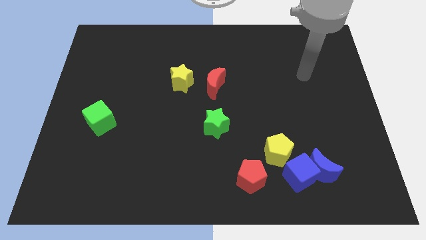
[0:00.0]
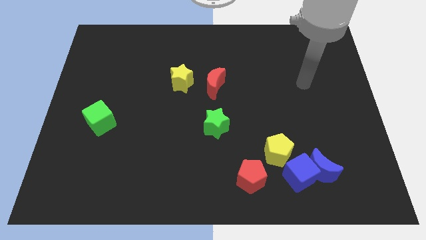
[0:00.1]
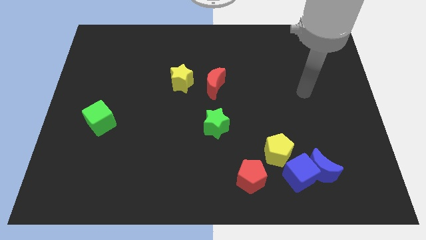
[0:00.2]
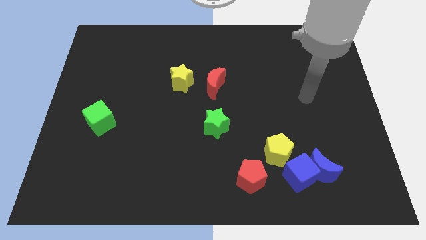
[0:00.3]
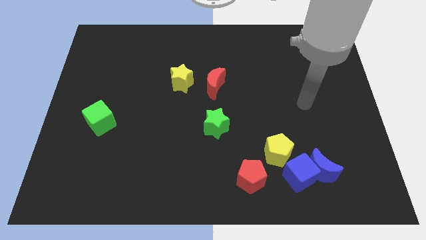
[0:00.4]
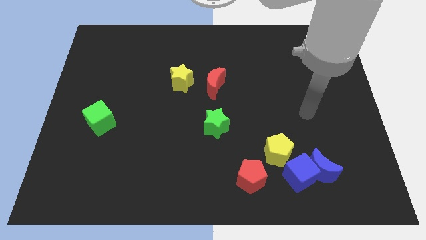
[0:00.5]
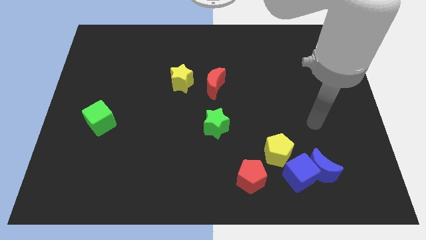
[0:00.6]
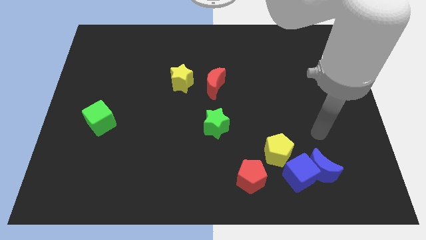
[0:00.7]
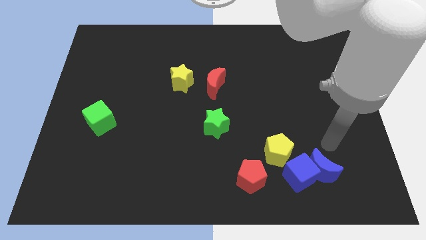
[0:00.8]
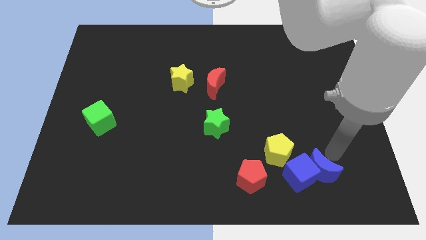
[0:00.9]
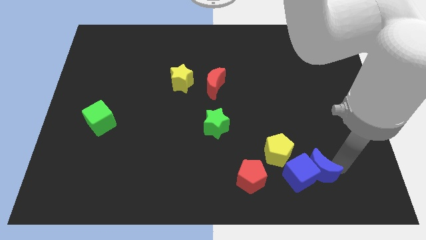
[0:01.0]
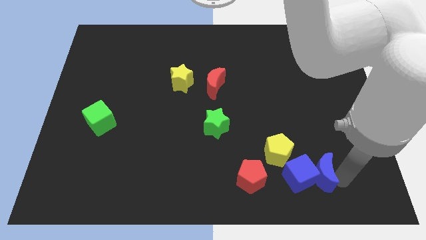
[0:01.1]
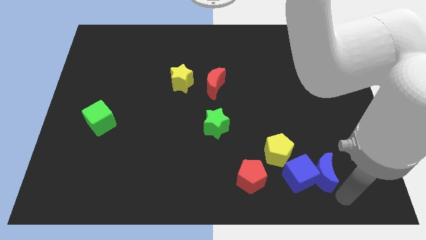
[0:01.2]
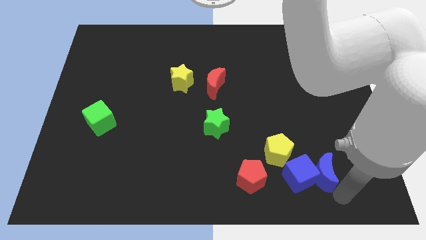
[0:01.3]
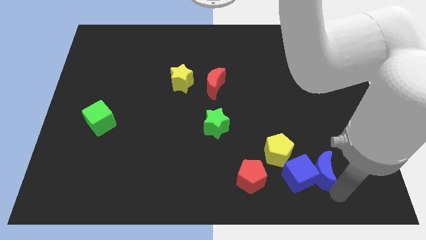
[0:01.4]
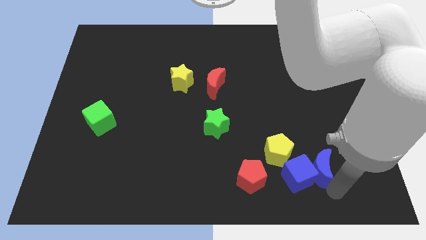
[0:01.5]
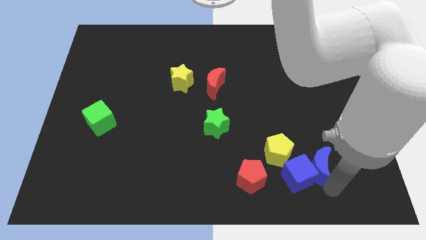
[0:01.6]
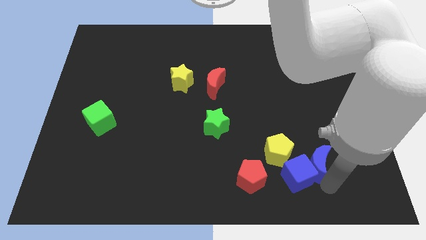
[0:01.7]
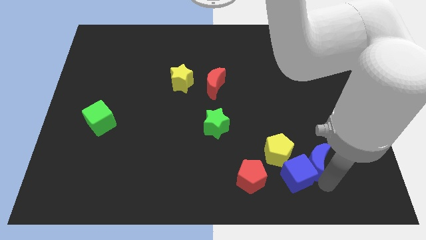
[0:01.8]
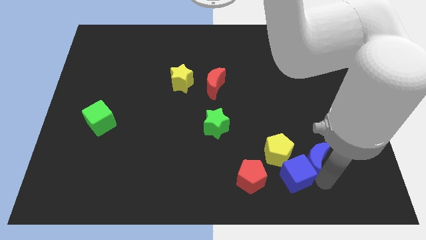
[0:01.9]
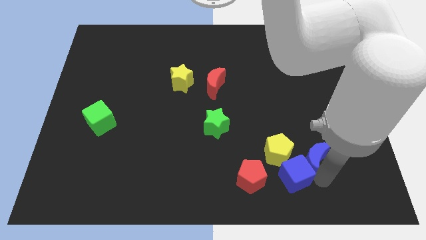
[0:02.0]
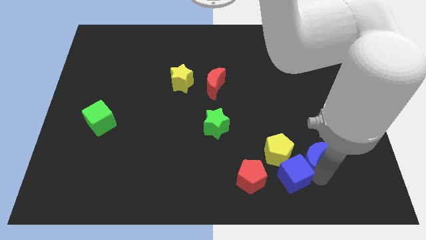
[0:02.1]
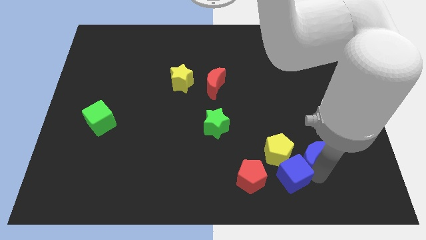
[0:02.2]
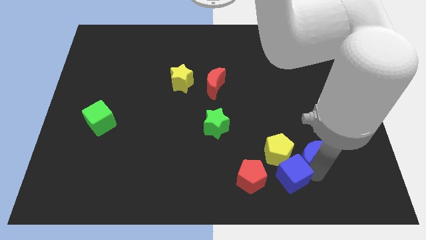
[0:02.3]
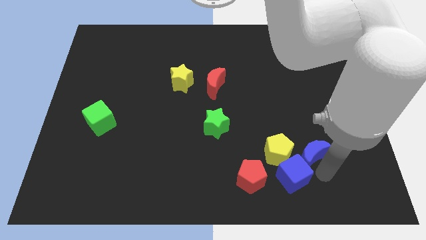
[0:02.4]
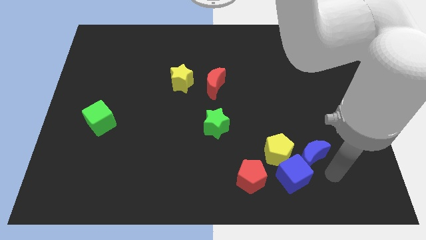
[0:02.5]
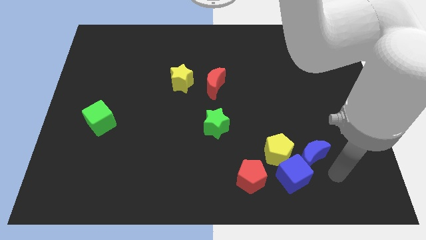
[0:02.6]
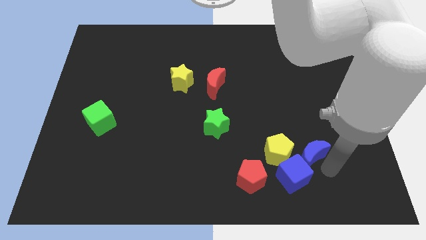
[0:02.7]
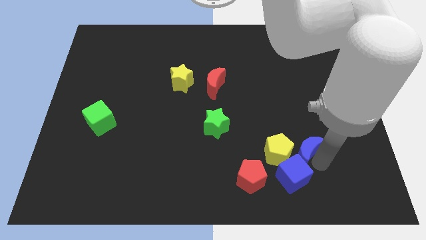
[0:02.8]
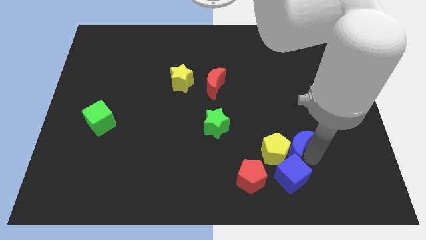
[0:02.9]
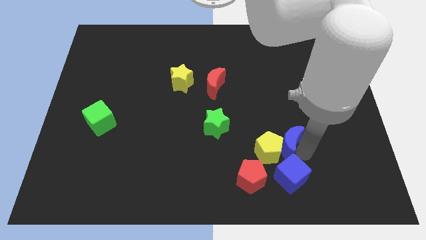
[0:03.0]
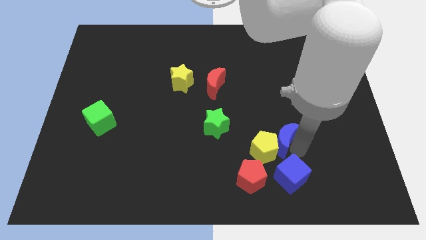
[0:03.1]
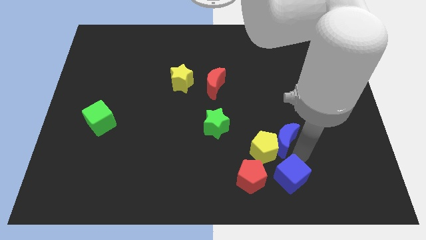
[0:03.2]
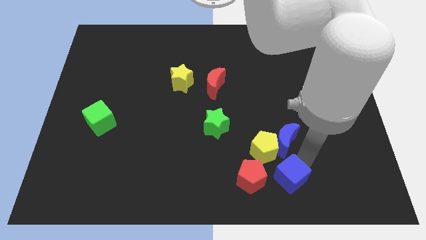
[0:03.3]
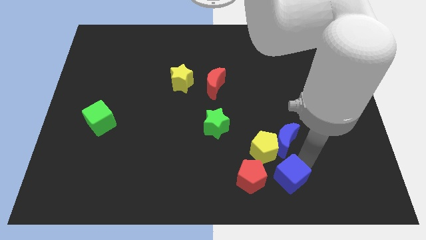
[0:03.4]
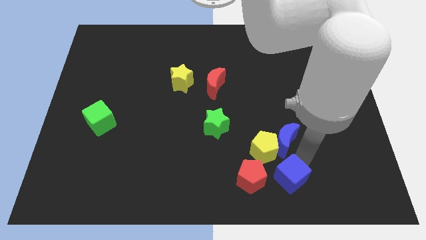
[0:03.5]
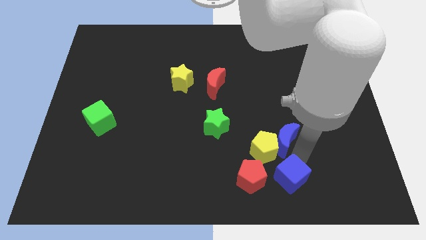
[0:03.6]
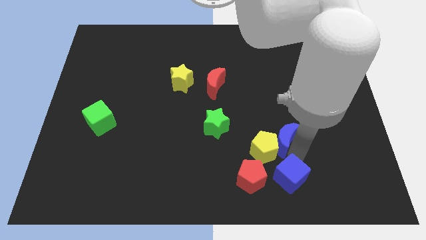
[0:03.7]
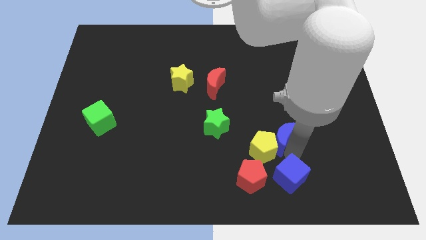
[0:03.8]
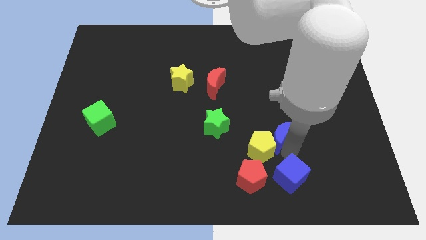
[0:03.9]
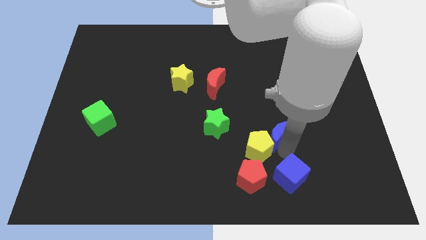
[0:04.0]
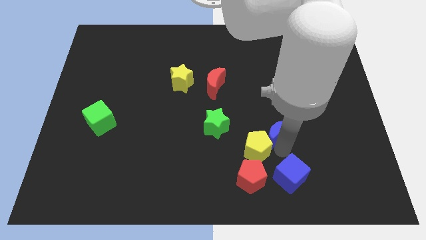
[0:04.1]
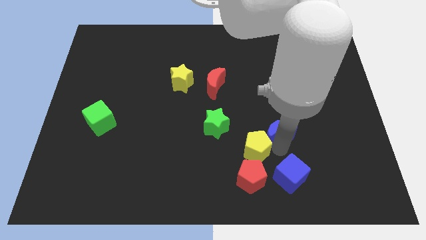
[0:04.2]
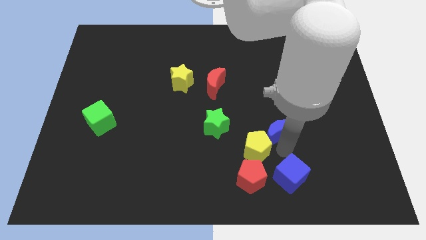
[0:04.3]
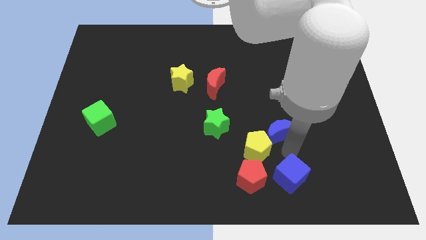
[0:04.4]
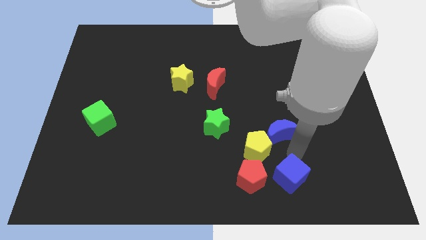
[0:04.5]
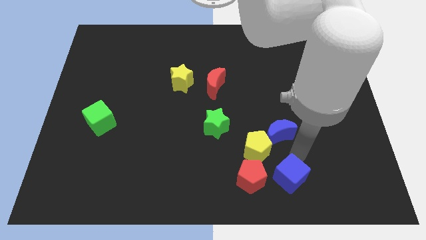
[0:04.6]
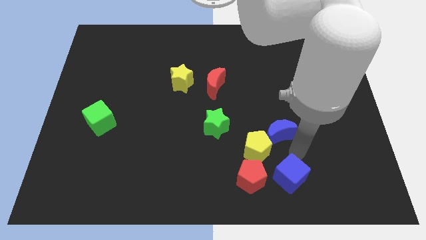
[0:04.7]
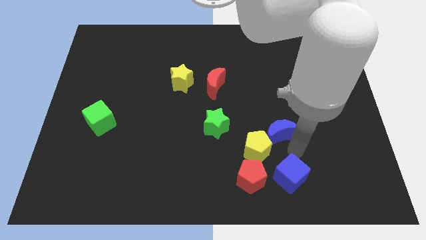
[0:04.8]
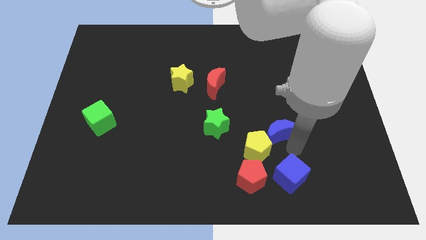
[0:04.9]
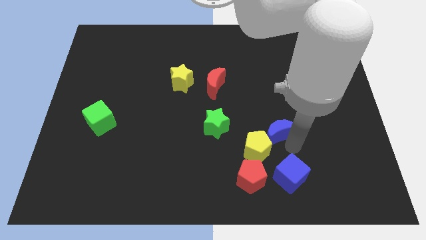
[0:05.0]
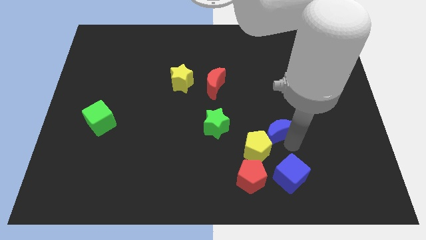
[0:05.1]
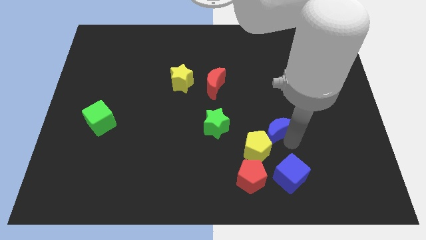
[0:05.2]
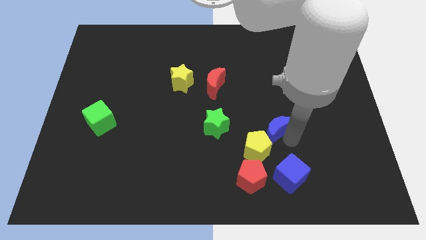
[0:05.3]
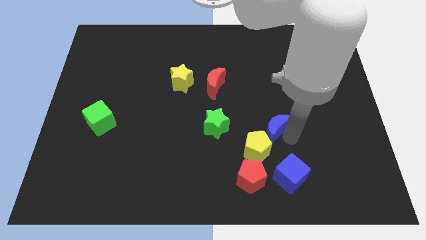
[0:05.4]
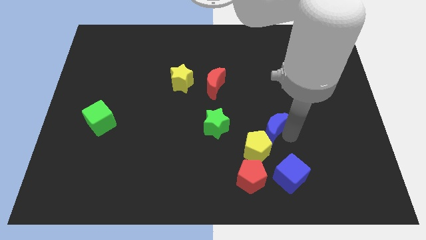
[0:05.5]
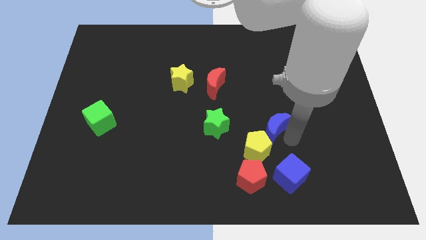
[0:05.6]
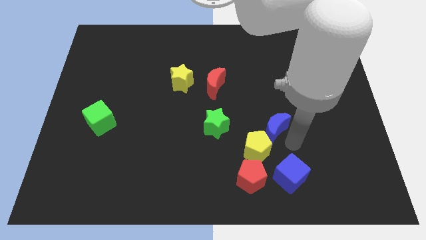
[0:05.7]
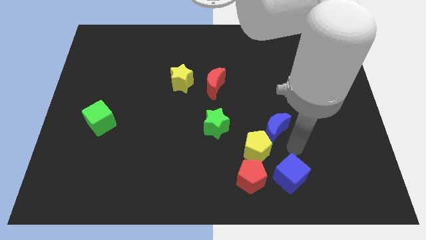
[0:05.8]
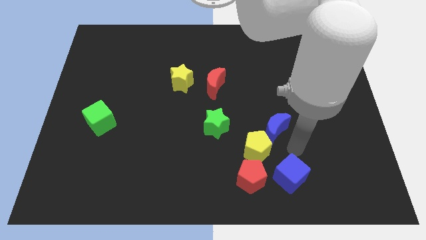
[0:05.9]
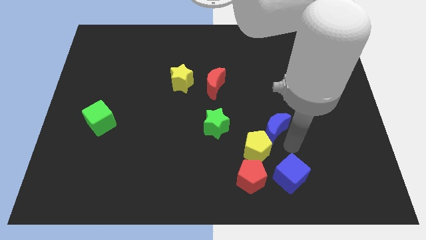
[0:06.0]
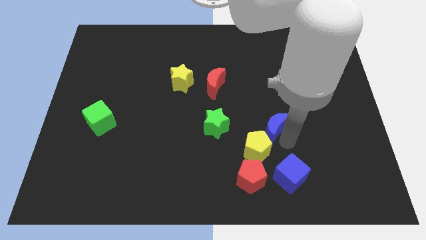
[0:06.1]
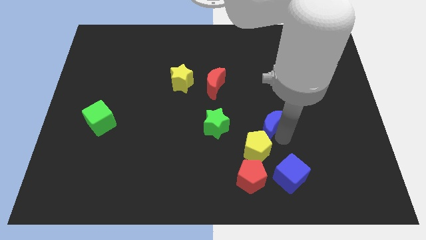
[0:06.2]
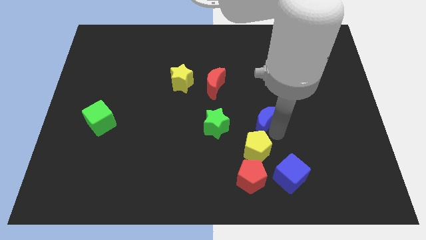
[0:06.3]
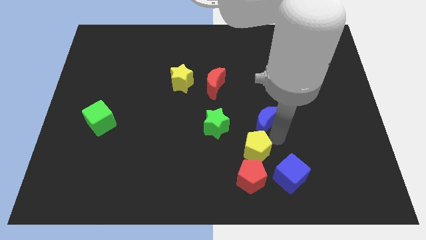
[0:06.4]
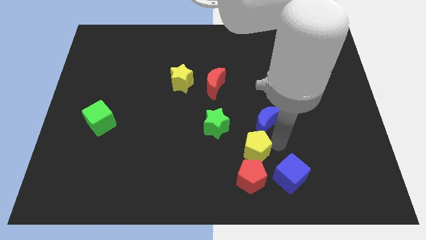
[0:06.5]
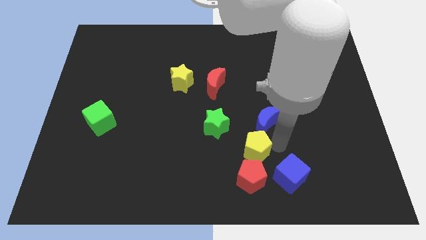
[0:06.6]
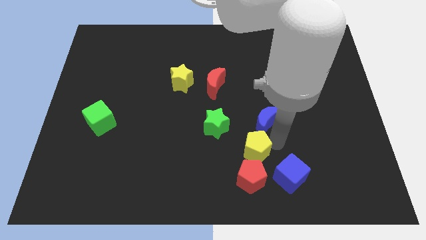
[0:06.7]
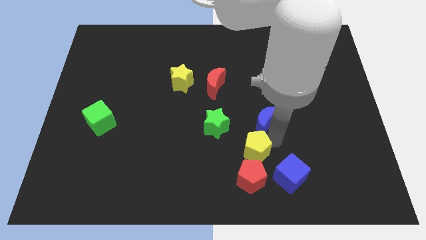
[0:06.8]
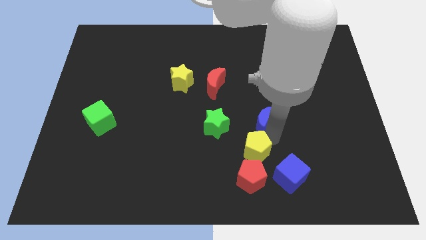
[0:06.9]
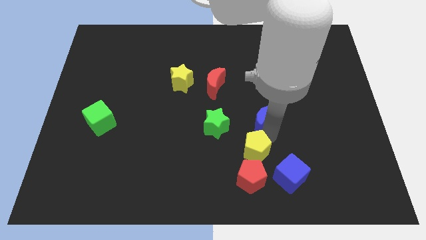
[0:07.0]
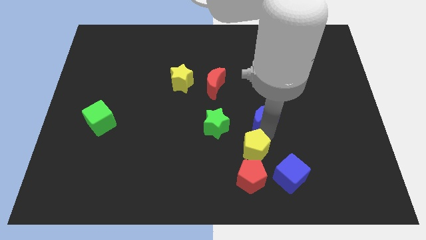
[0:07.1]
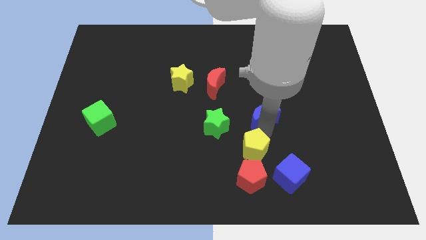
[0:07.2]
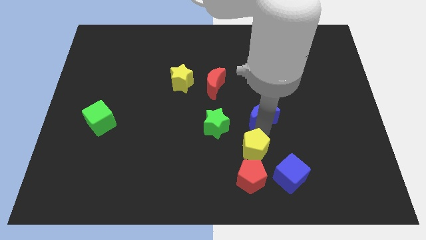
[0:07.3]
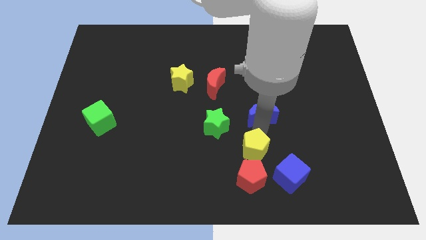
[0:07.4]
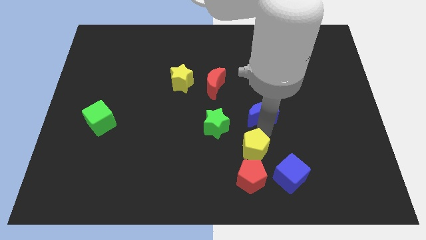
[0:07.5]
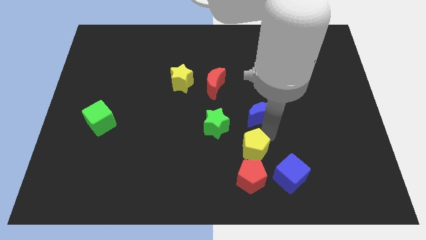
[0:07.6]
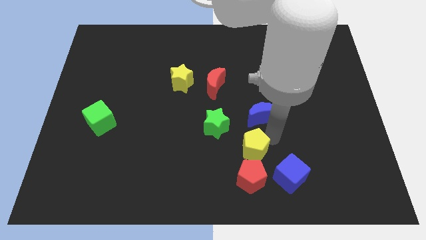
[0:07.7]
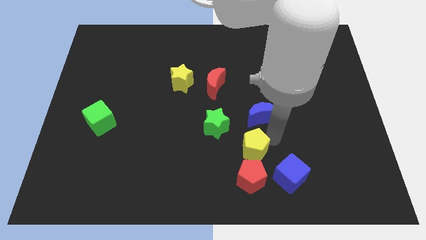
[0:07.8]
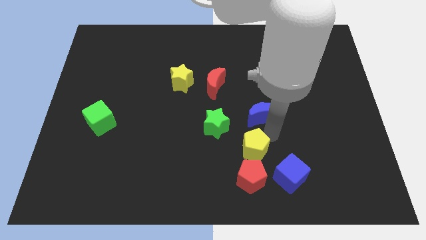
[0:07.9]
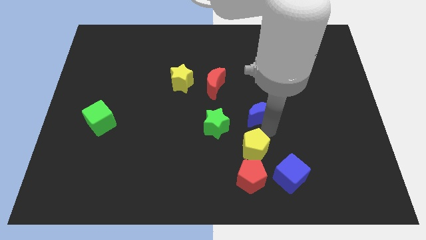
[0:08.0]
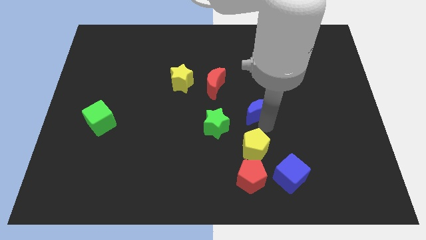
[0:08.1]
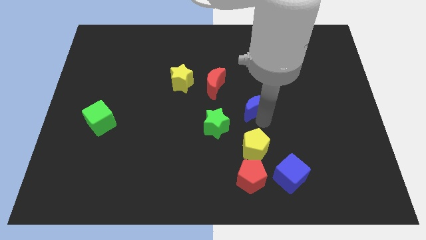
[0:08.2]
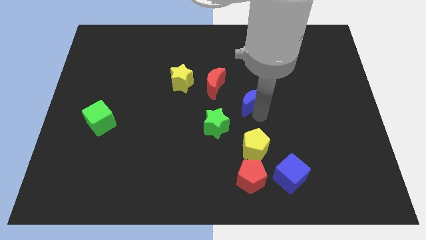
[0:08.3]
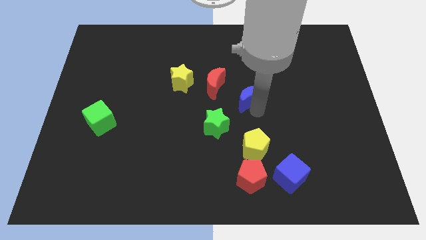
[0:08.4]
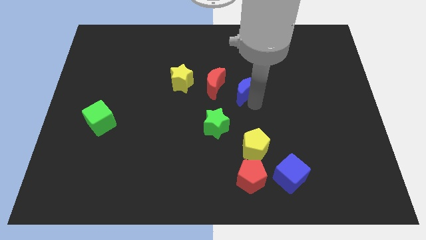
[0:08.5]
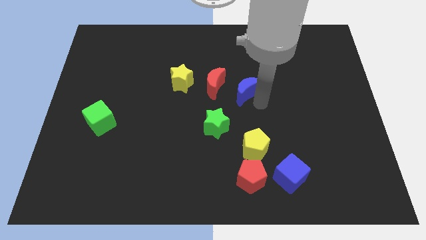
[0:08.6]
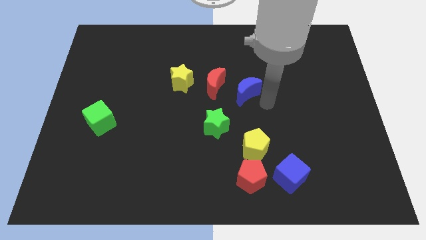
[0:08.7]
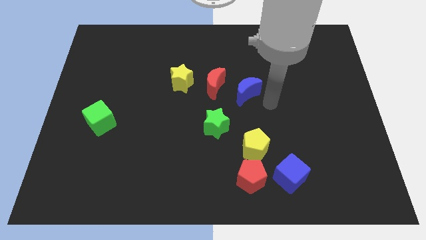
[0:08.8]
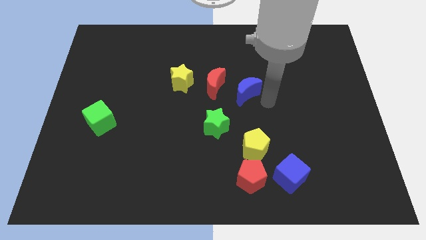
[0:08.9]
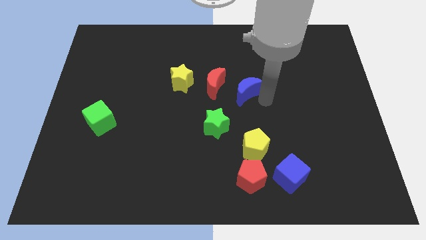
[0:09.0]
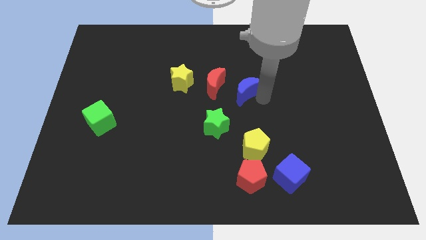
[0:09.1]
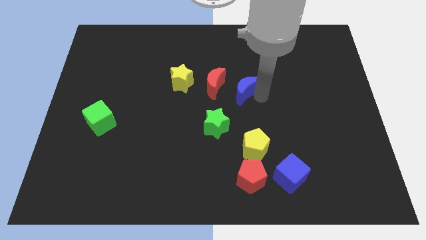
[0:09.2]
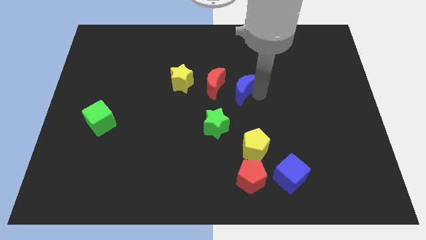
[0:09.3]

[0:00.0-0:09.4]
move the blue moon to the right of the yellow star
